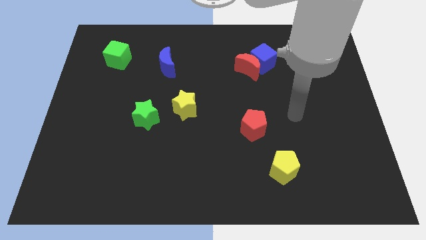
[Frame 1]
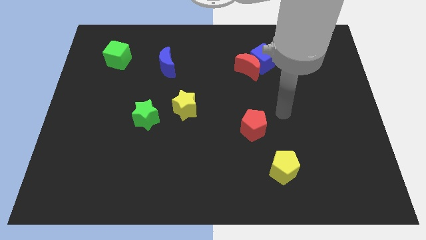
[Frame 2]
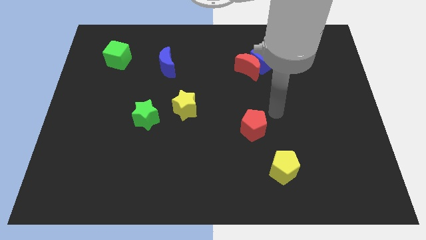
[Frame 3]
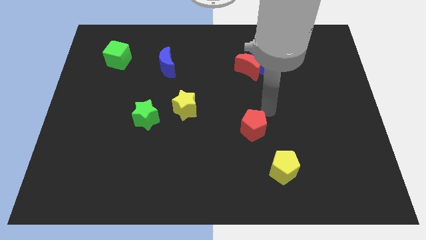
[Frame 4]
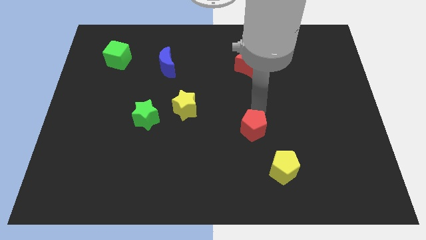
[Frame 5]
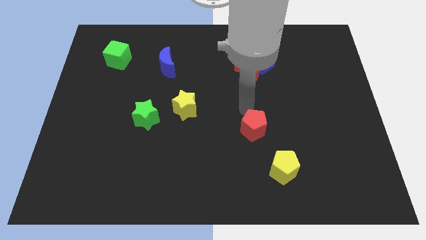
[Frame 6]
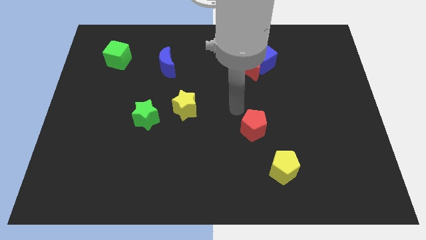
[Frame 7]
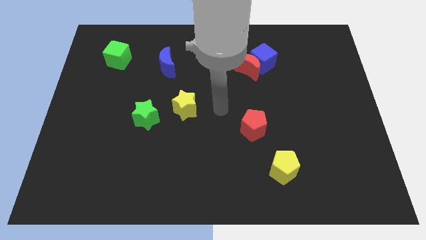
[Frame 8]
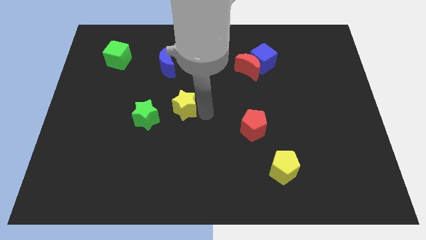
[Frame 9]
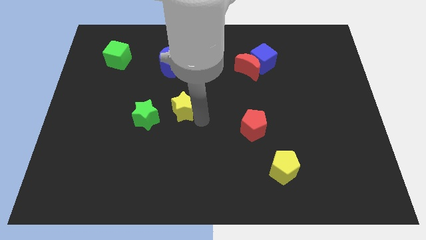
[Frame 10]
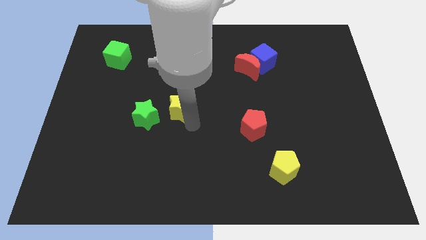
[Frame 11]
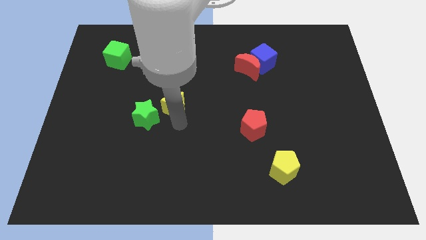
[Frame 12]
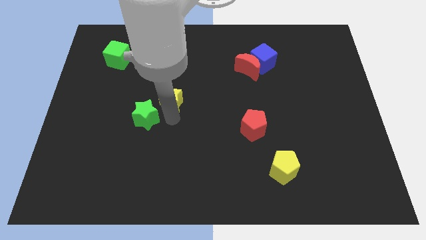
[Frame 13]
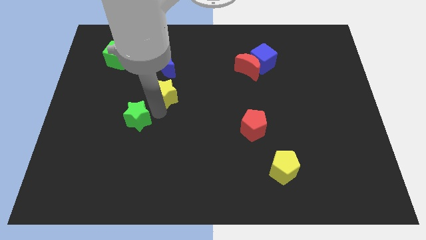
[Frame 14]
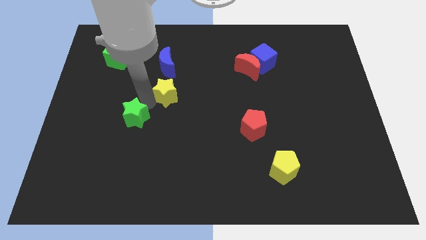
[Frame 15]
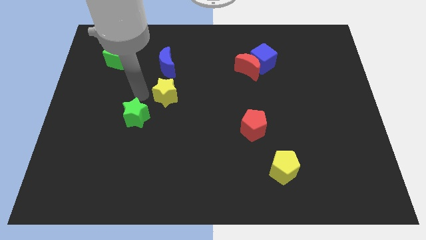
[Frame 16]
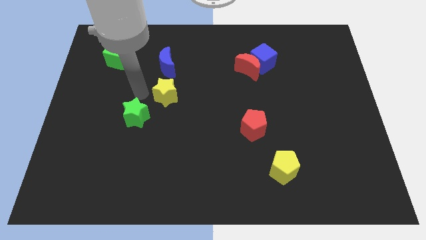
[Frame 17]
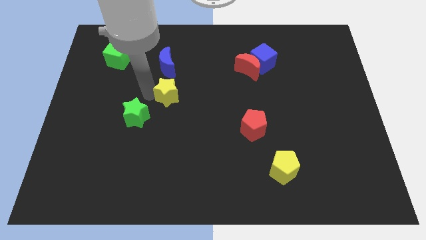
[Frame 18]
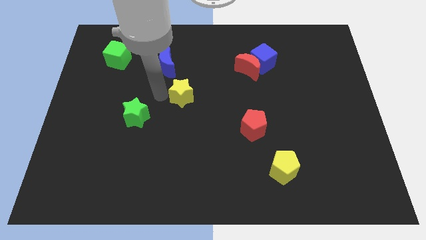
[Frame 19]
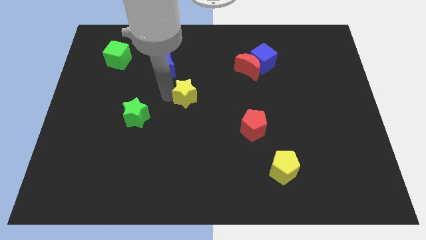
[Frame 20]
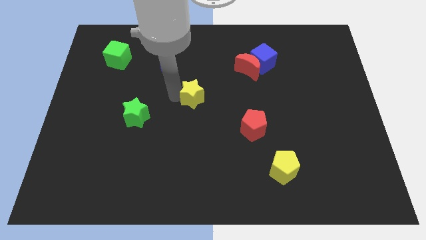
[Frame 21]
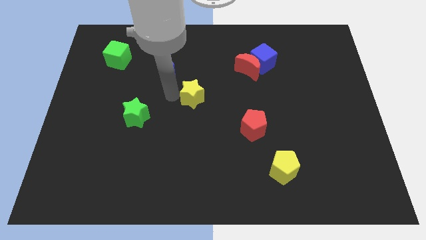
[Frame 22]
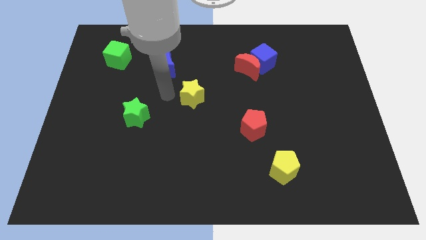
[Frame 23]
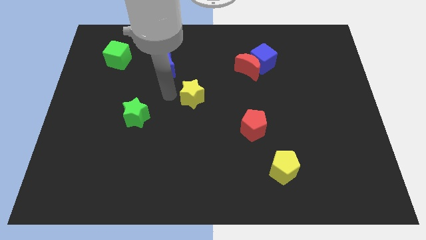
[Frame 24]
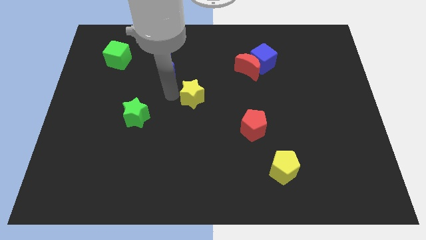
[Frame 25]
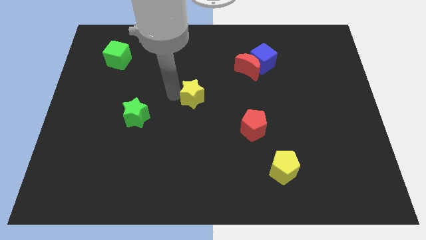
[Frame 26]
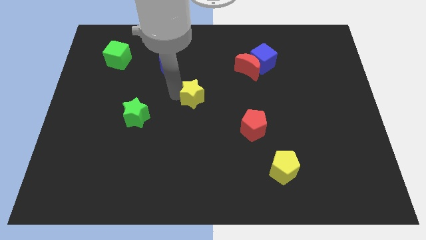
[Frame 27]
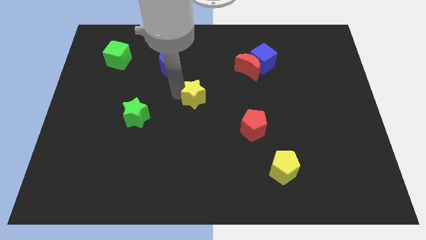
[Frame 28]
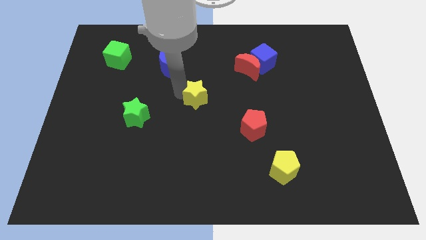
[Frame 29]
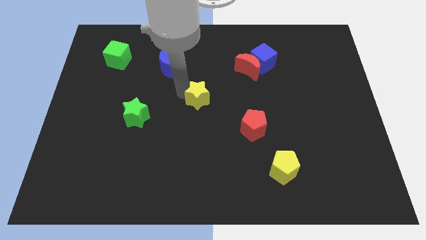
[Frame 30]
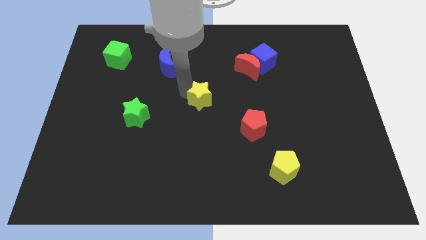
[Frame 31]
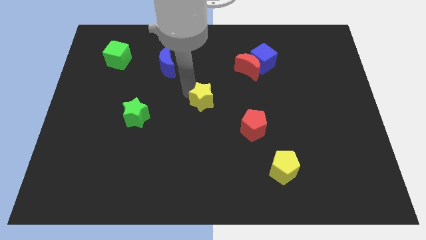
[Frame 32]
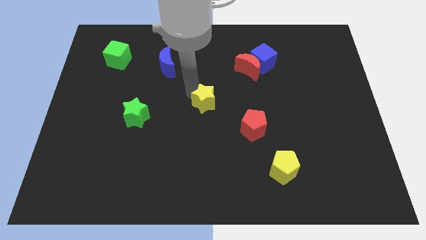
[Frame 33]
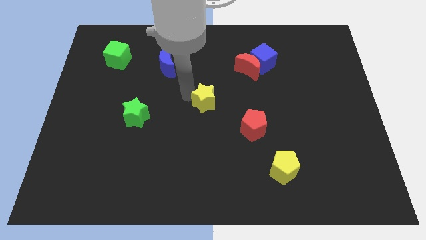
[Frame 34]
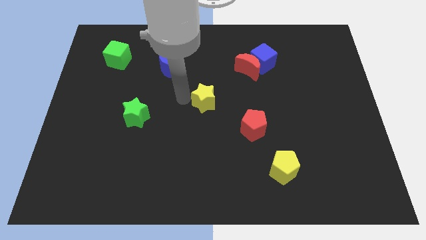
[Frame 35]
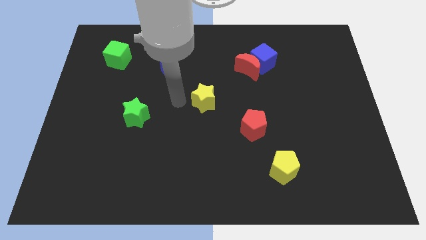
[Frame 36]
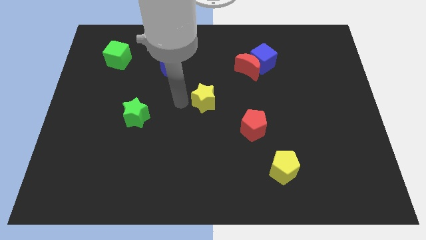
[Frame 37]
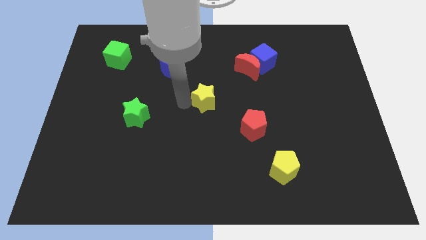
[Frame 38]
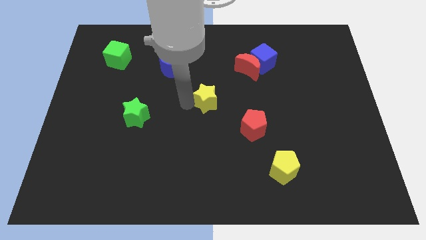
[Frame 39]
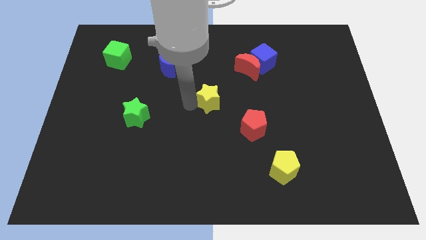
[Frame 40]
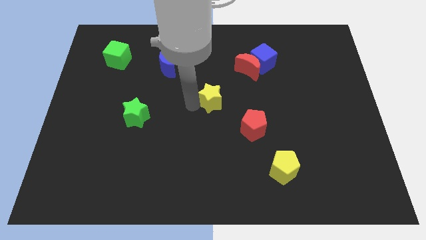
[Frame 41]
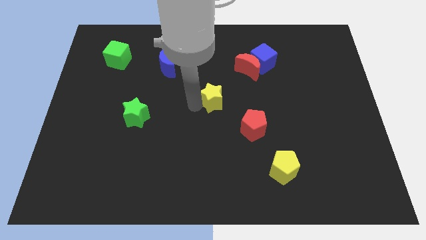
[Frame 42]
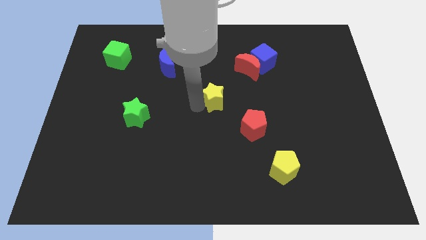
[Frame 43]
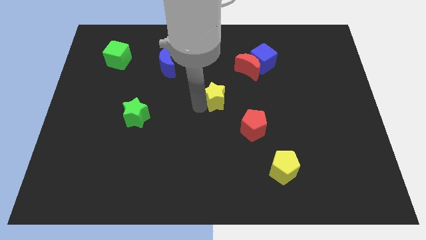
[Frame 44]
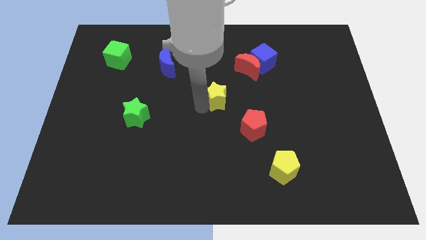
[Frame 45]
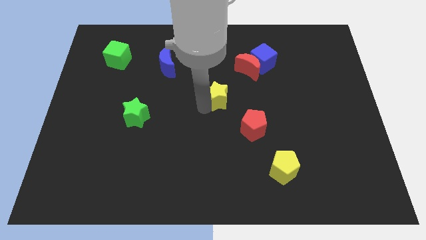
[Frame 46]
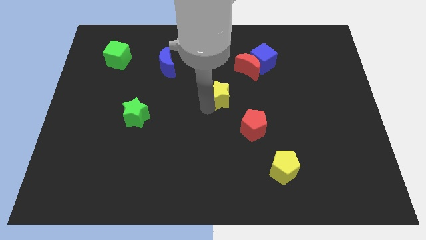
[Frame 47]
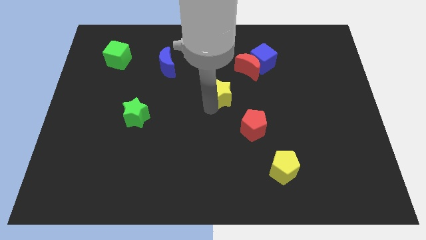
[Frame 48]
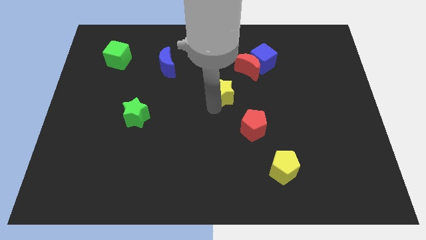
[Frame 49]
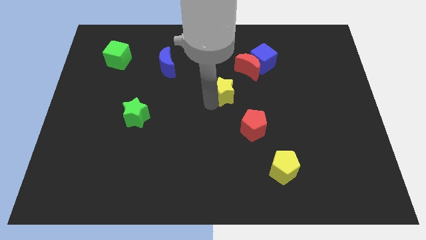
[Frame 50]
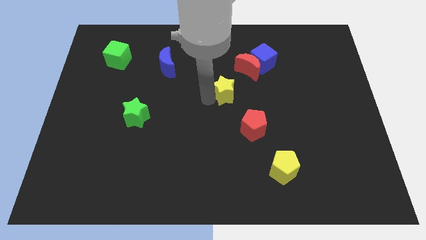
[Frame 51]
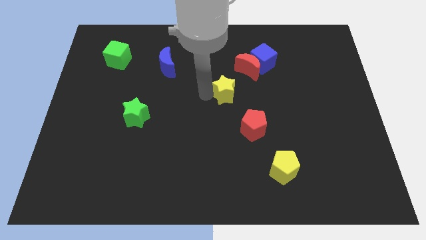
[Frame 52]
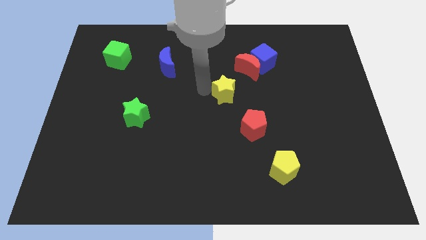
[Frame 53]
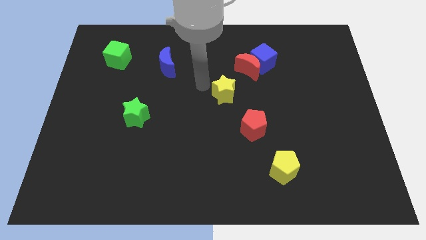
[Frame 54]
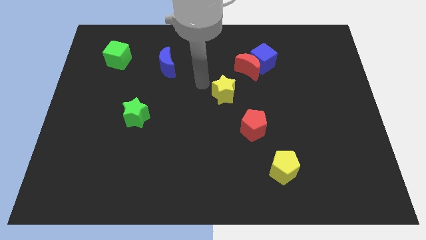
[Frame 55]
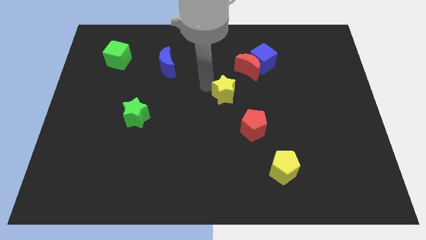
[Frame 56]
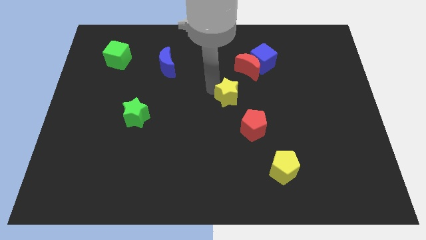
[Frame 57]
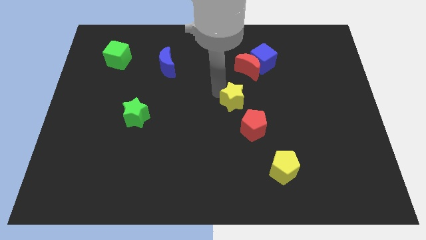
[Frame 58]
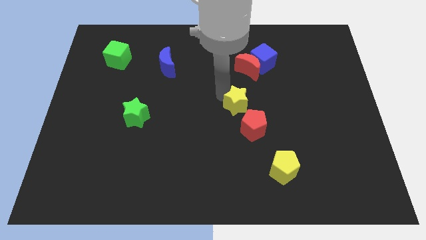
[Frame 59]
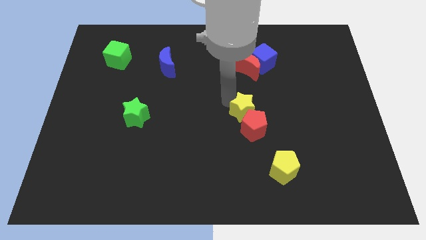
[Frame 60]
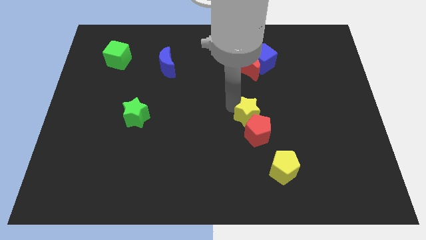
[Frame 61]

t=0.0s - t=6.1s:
put the yellow star to the top right side of the red pentagon
